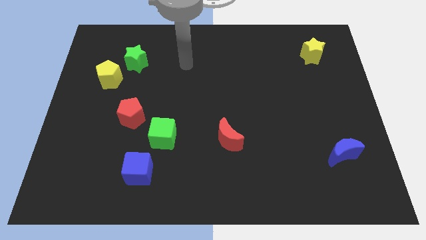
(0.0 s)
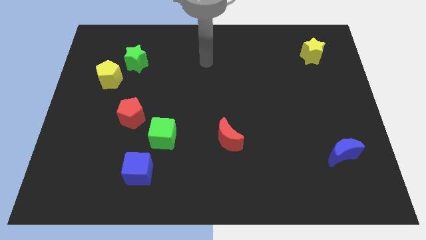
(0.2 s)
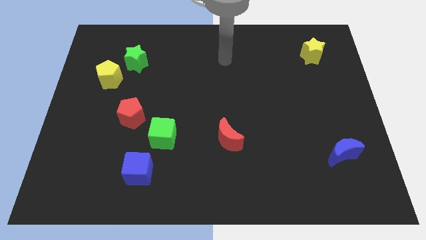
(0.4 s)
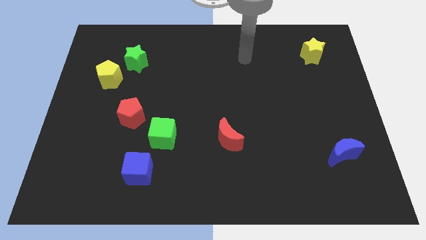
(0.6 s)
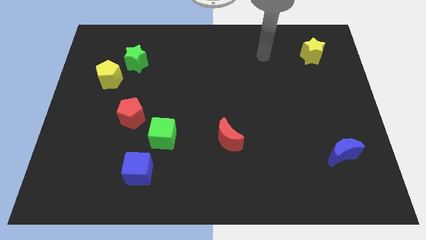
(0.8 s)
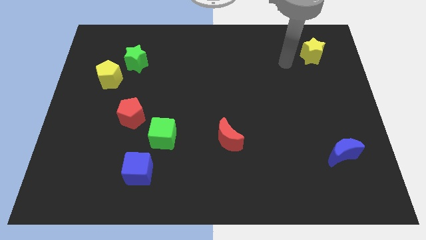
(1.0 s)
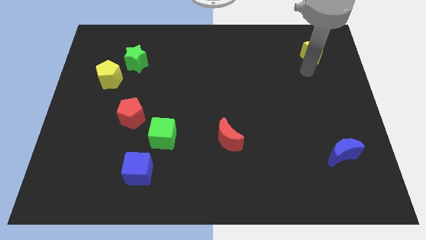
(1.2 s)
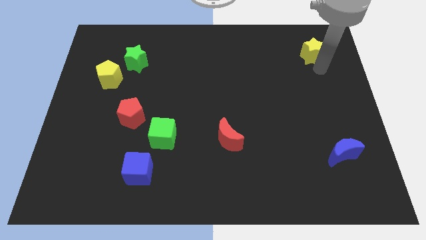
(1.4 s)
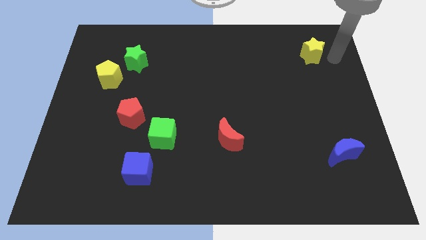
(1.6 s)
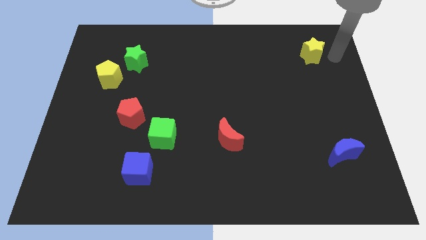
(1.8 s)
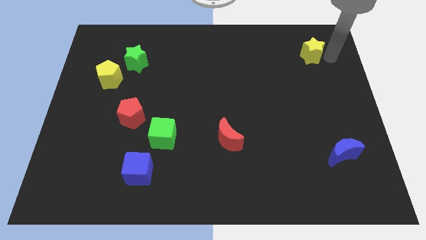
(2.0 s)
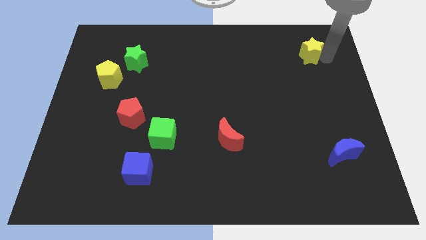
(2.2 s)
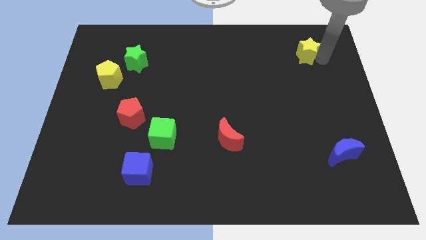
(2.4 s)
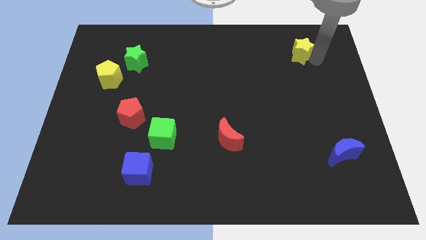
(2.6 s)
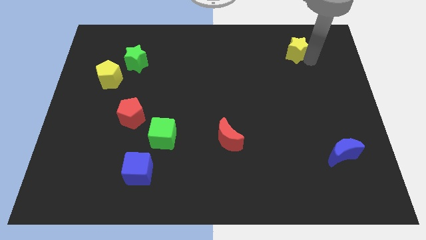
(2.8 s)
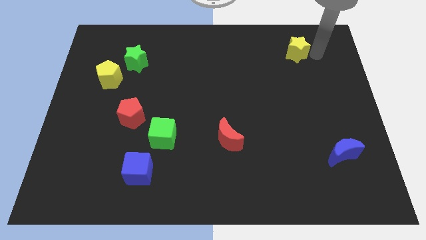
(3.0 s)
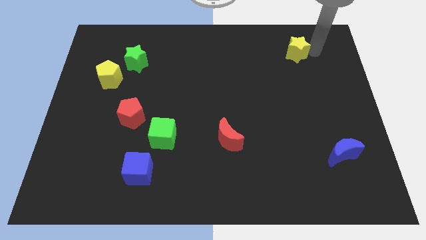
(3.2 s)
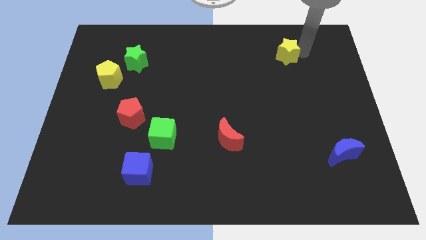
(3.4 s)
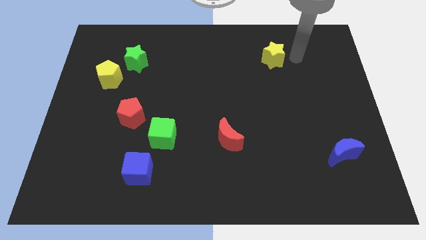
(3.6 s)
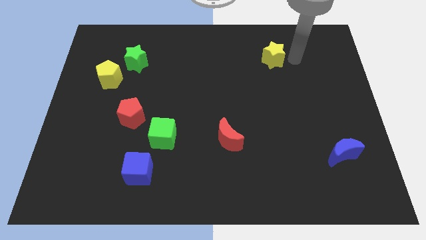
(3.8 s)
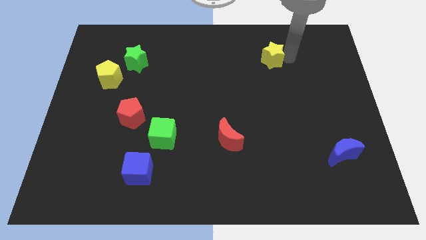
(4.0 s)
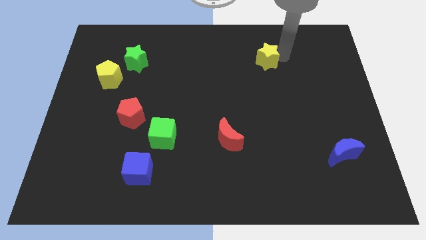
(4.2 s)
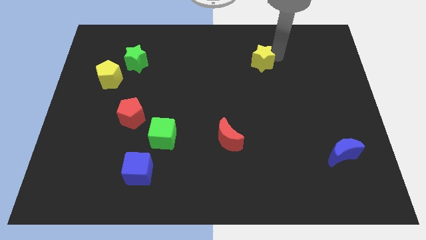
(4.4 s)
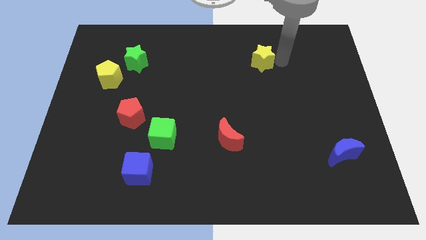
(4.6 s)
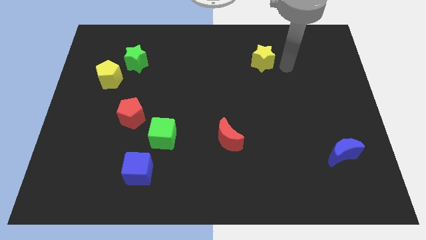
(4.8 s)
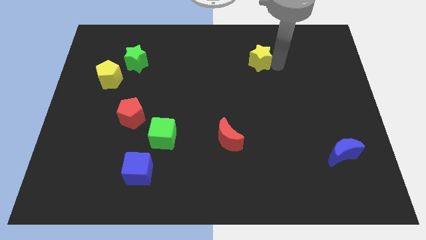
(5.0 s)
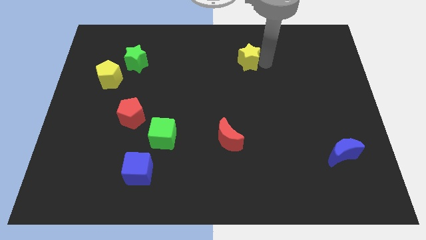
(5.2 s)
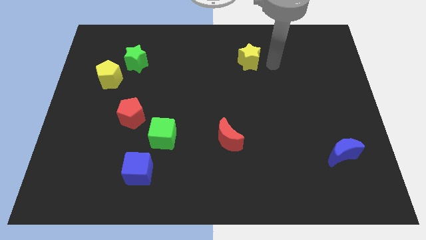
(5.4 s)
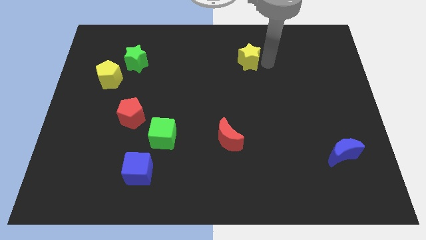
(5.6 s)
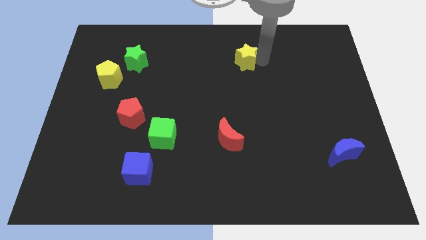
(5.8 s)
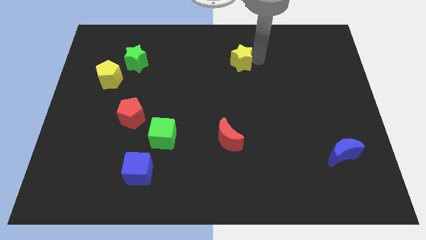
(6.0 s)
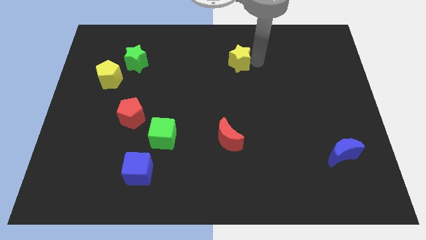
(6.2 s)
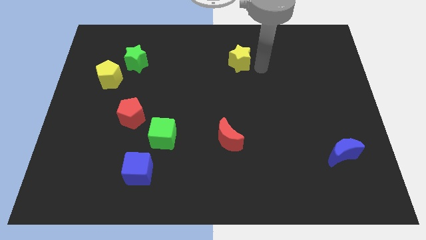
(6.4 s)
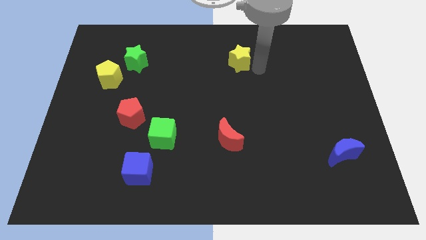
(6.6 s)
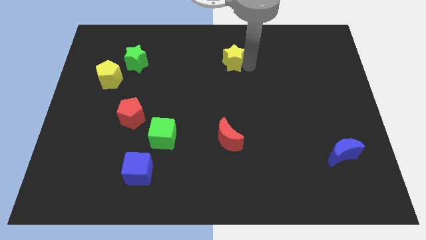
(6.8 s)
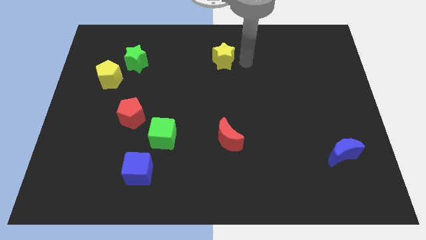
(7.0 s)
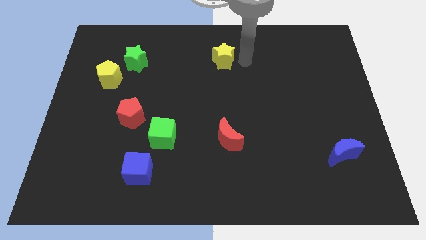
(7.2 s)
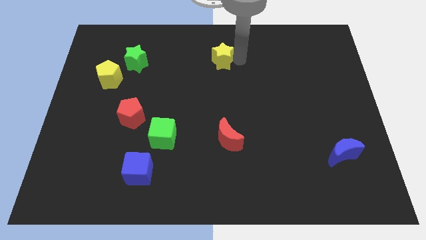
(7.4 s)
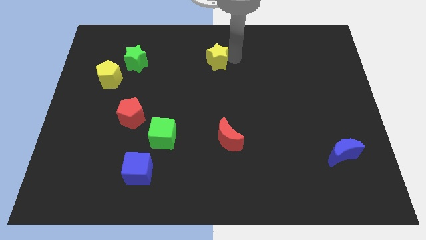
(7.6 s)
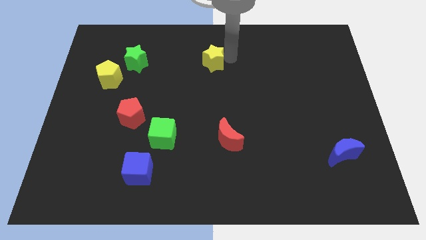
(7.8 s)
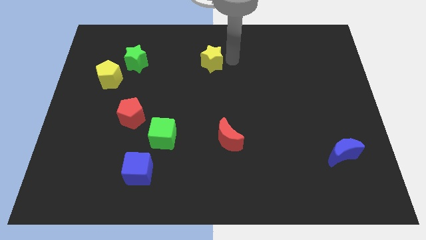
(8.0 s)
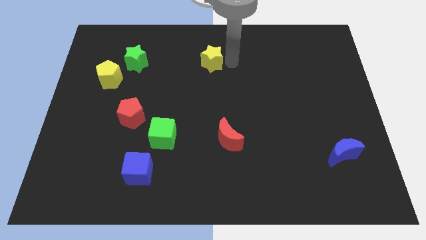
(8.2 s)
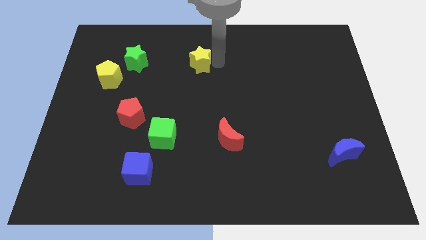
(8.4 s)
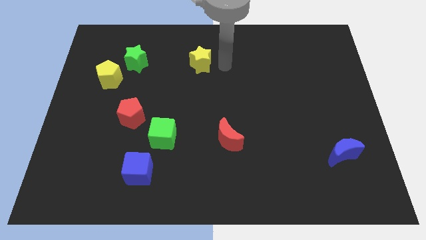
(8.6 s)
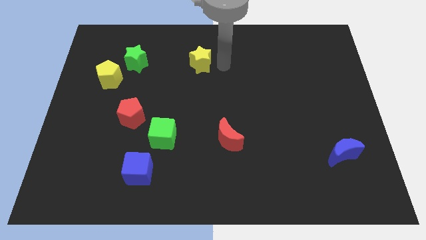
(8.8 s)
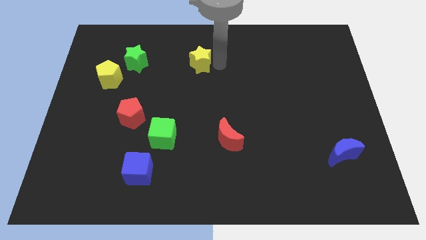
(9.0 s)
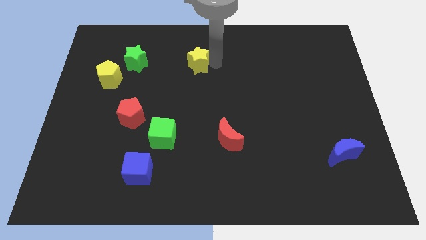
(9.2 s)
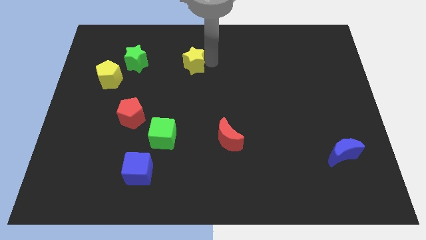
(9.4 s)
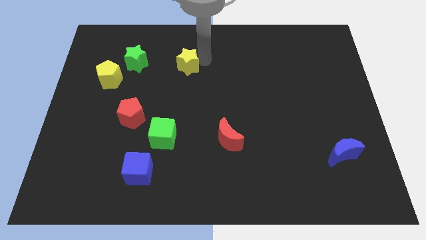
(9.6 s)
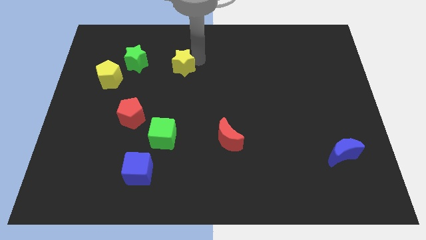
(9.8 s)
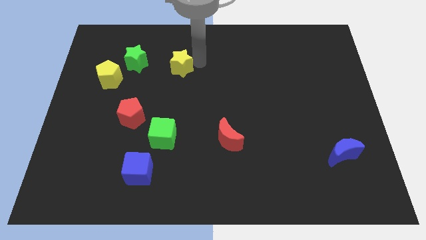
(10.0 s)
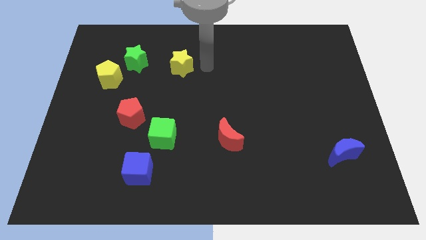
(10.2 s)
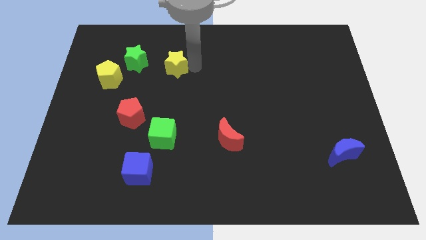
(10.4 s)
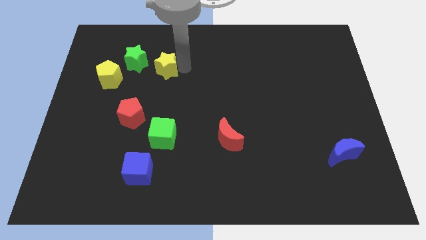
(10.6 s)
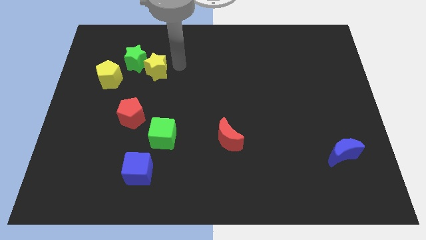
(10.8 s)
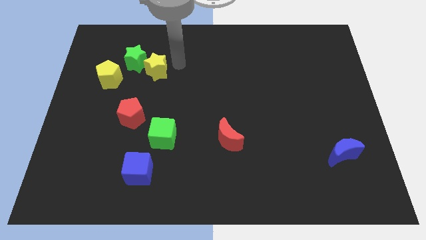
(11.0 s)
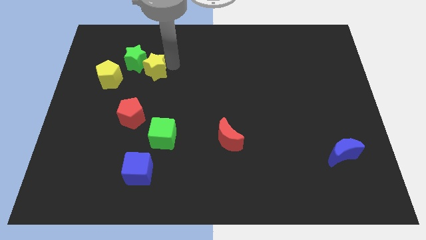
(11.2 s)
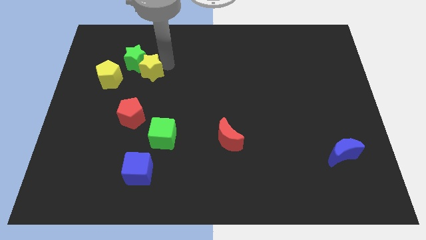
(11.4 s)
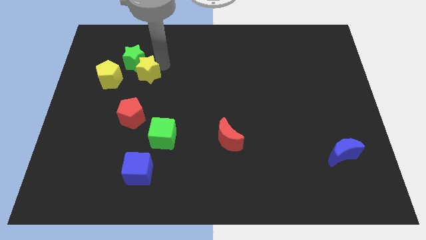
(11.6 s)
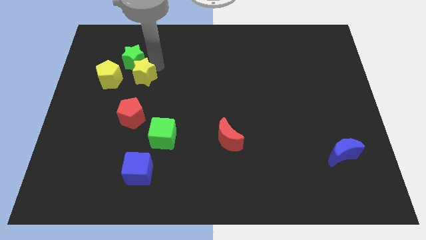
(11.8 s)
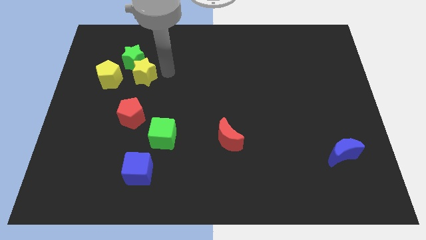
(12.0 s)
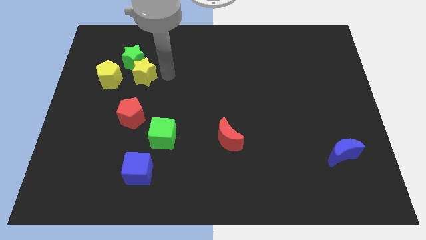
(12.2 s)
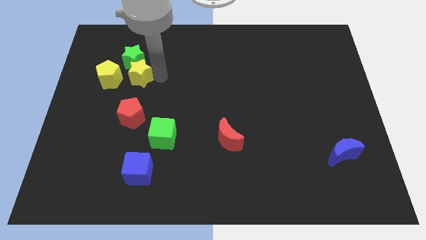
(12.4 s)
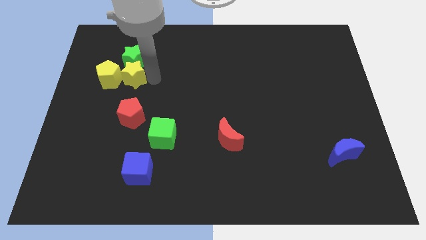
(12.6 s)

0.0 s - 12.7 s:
move the yellow star close to the yellow pentagon

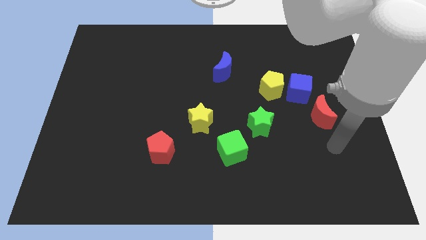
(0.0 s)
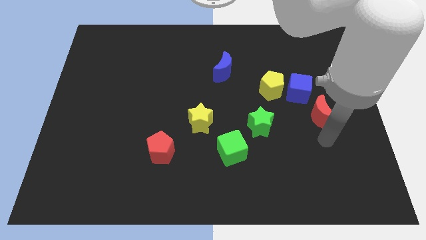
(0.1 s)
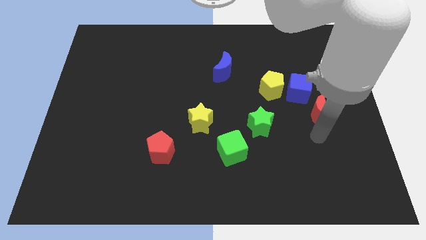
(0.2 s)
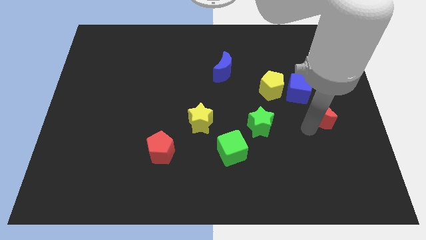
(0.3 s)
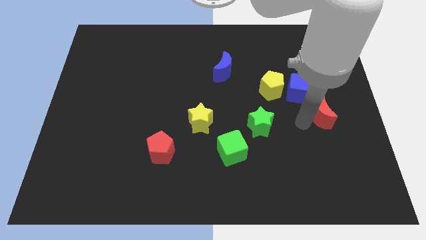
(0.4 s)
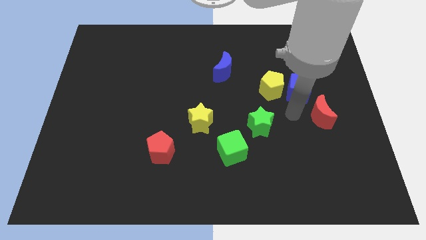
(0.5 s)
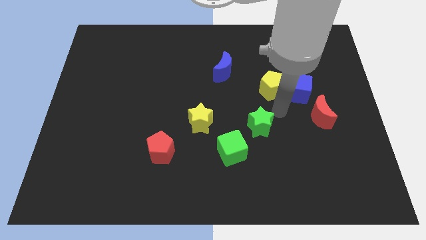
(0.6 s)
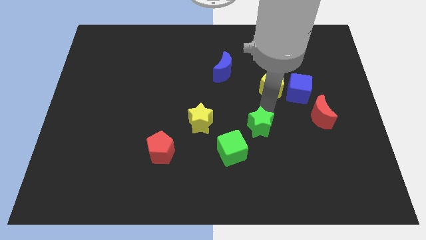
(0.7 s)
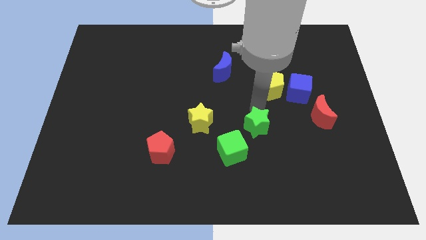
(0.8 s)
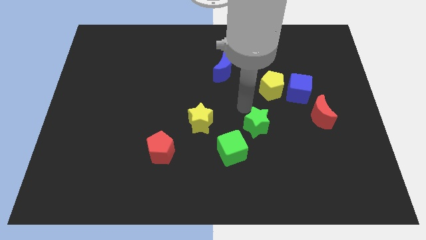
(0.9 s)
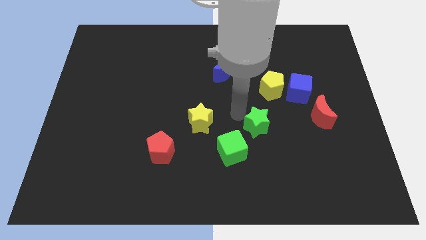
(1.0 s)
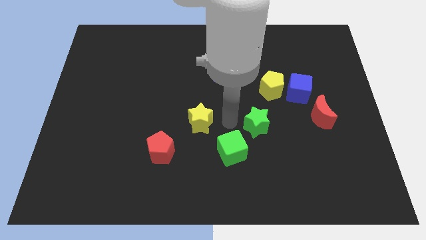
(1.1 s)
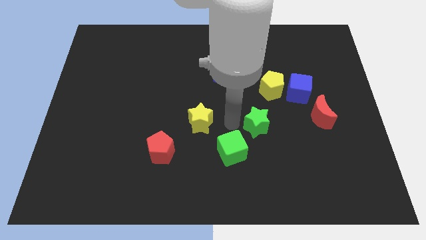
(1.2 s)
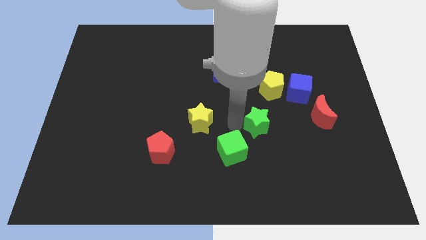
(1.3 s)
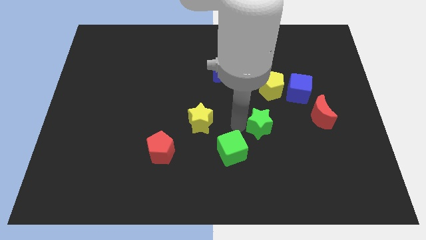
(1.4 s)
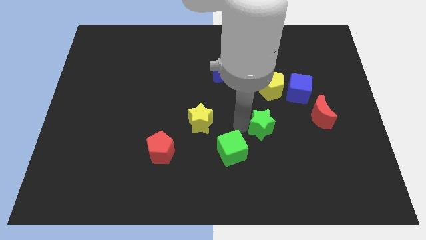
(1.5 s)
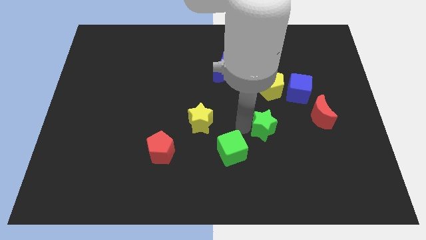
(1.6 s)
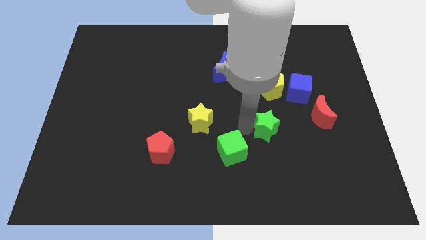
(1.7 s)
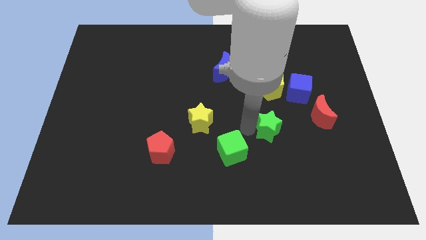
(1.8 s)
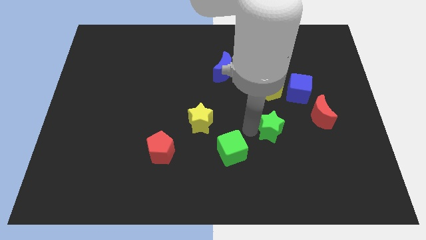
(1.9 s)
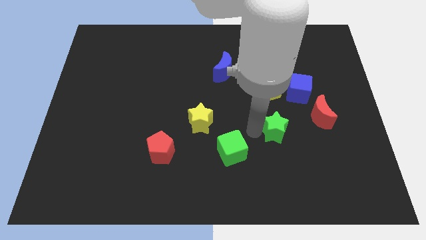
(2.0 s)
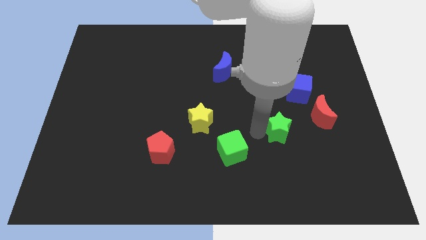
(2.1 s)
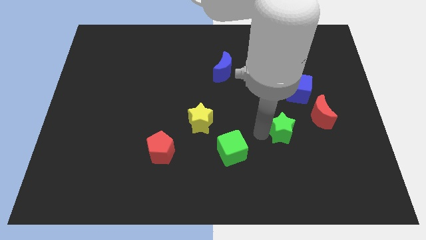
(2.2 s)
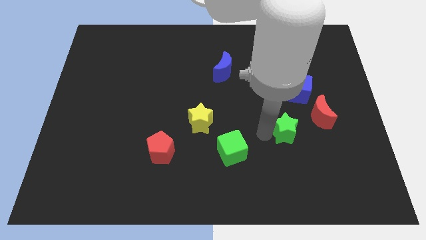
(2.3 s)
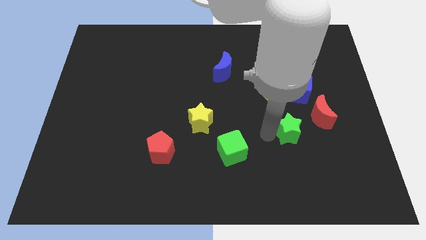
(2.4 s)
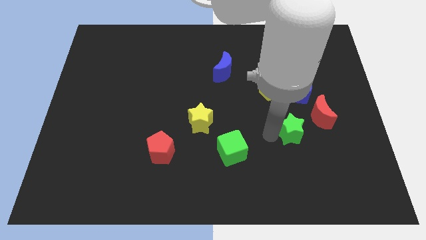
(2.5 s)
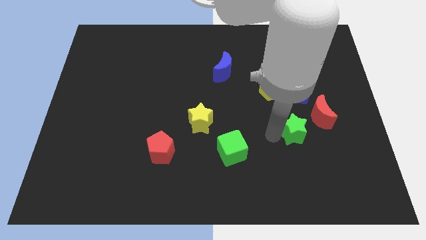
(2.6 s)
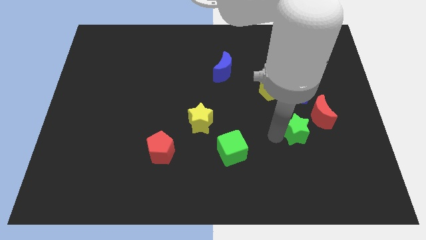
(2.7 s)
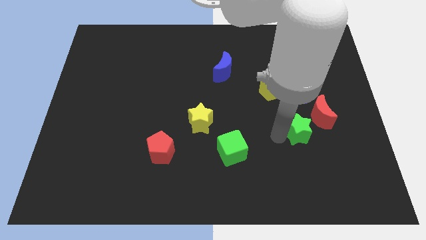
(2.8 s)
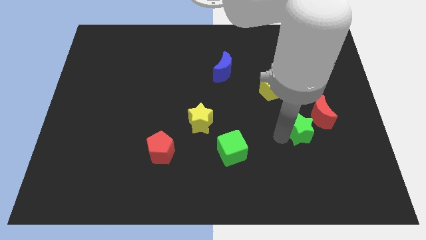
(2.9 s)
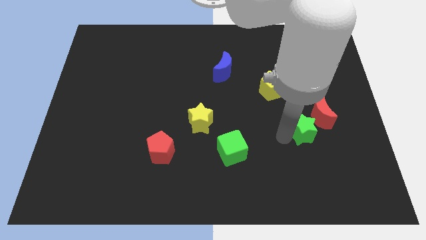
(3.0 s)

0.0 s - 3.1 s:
slide the green star next to the red moon
